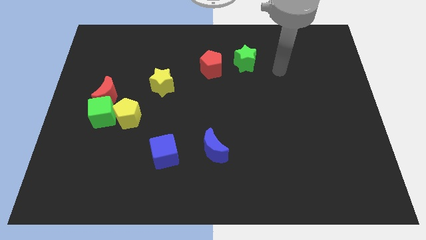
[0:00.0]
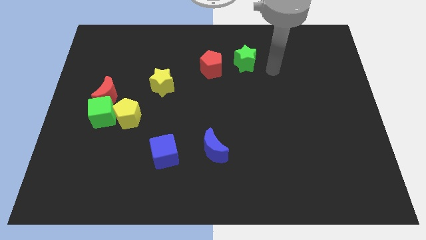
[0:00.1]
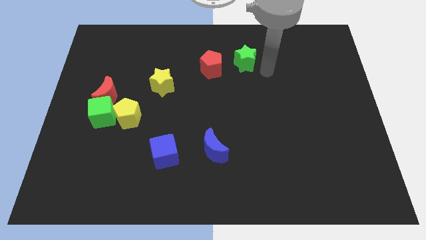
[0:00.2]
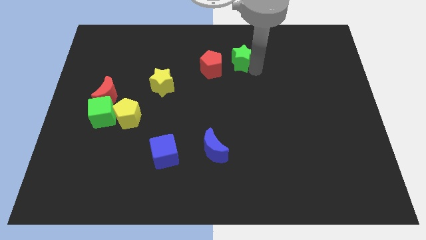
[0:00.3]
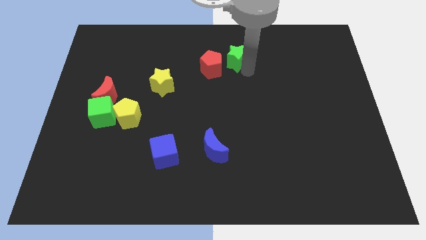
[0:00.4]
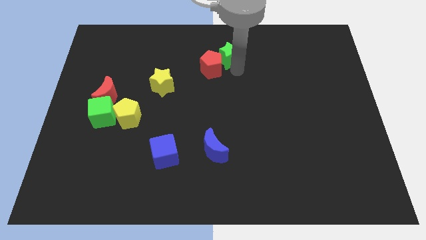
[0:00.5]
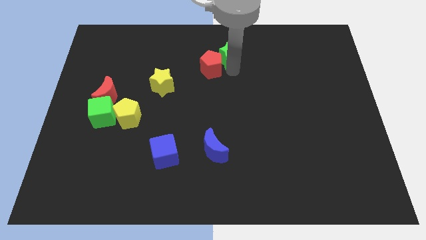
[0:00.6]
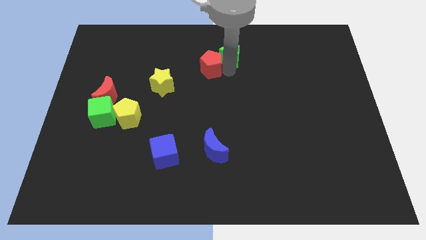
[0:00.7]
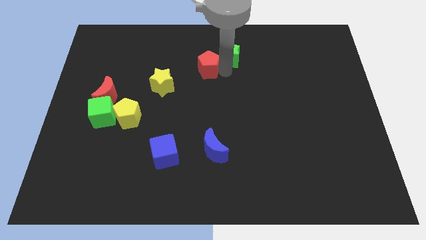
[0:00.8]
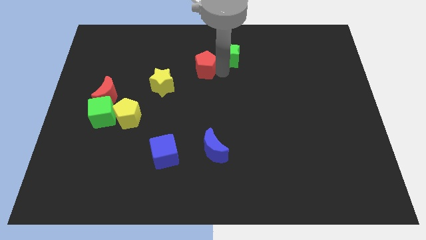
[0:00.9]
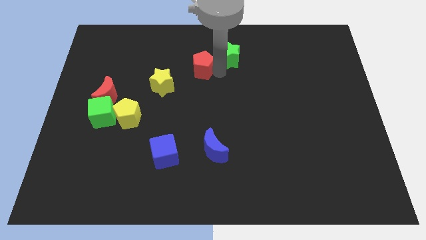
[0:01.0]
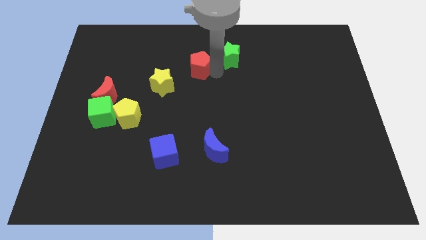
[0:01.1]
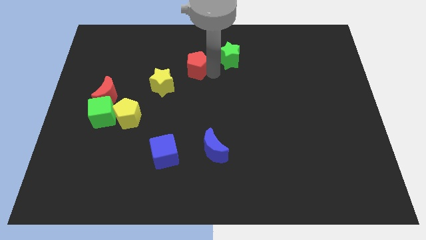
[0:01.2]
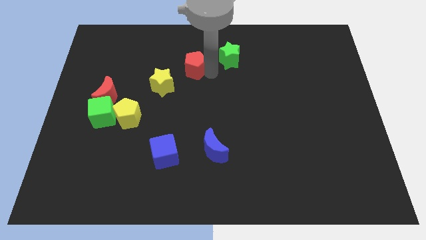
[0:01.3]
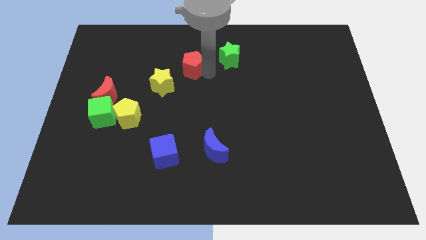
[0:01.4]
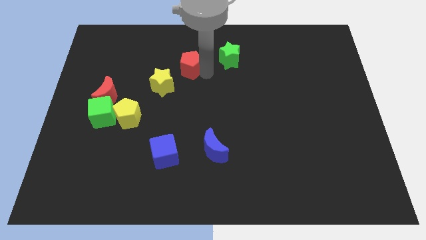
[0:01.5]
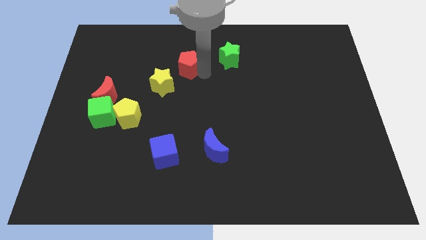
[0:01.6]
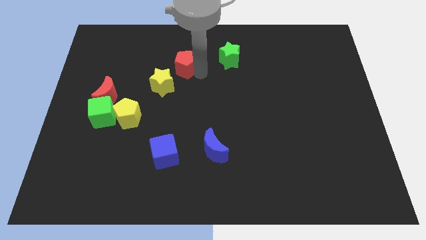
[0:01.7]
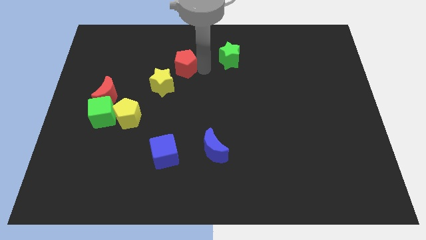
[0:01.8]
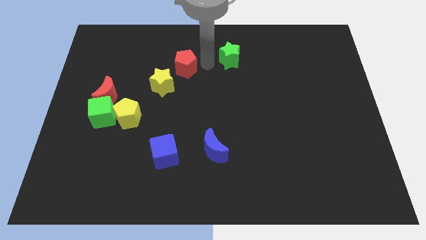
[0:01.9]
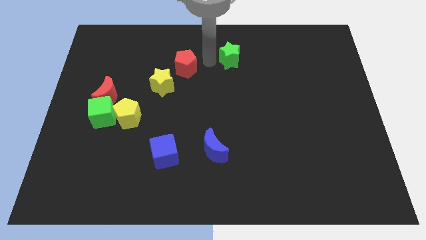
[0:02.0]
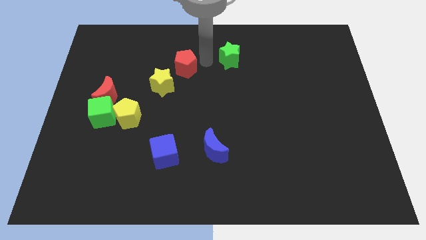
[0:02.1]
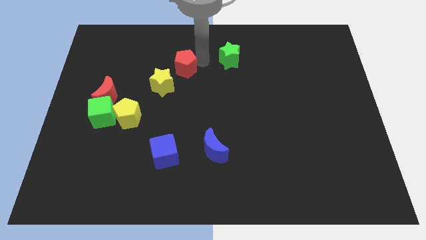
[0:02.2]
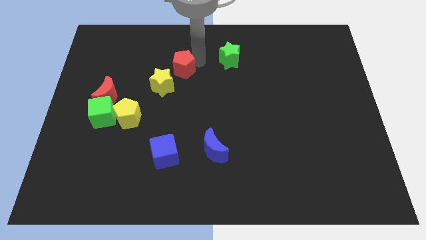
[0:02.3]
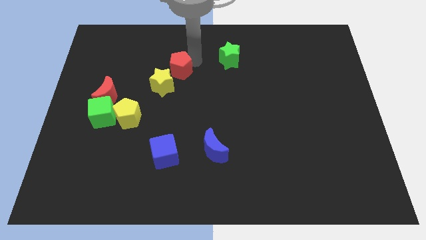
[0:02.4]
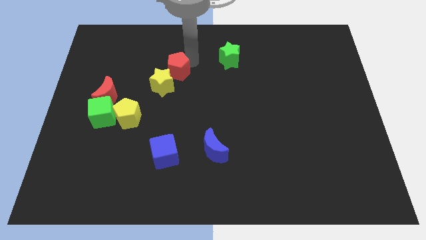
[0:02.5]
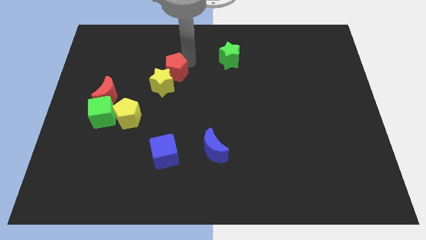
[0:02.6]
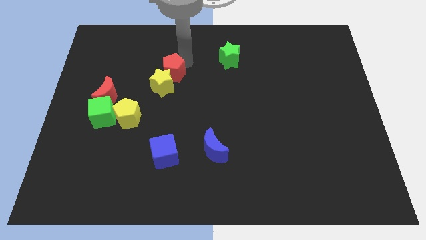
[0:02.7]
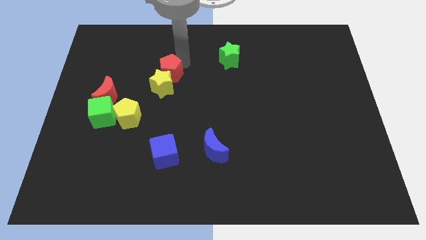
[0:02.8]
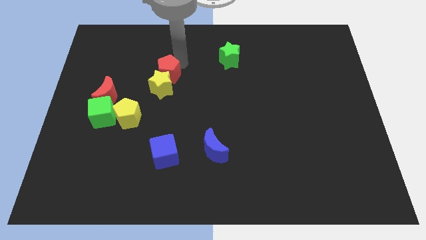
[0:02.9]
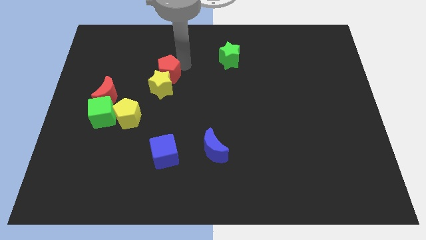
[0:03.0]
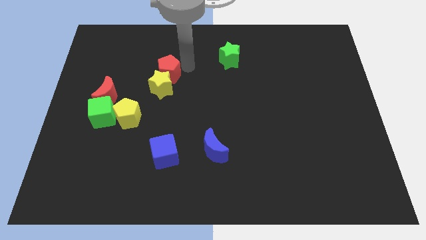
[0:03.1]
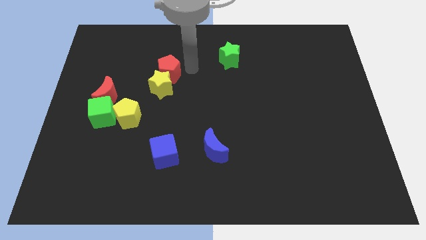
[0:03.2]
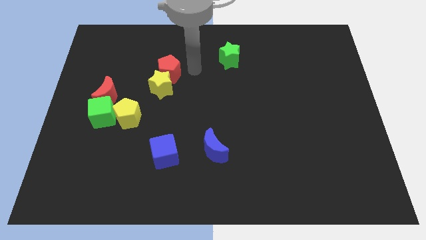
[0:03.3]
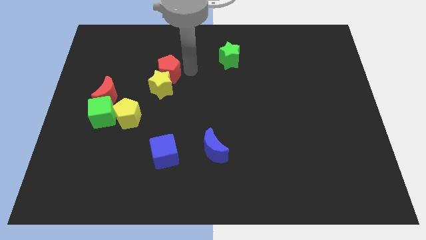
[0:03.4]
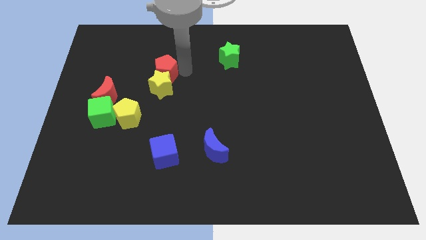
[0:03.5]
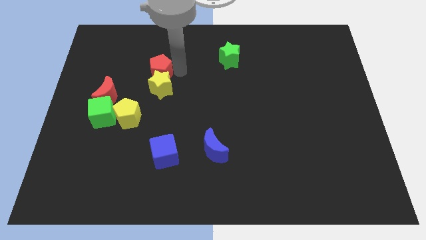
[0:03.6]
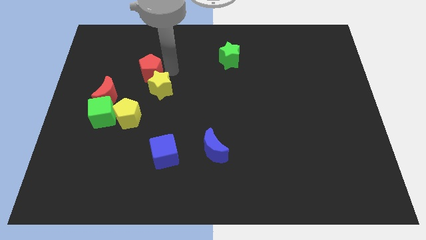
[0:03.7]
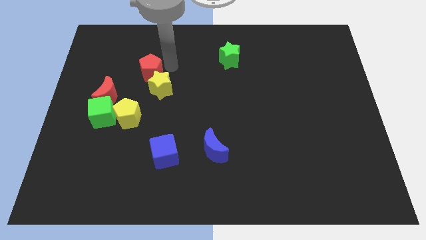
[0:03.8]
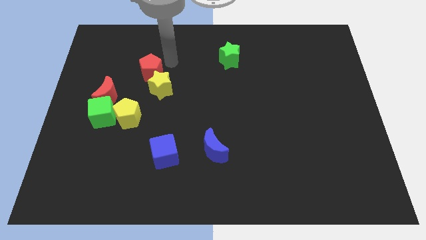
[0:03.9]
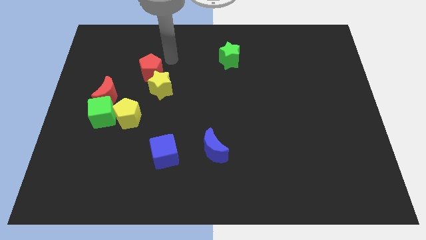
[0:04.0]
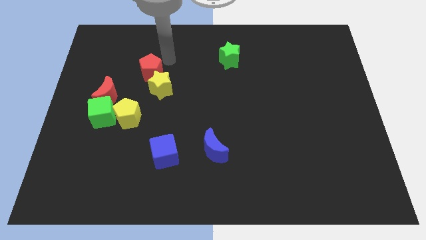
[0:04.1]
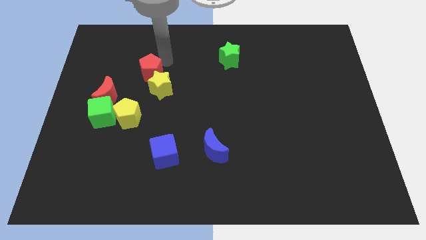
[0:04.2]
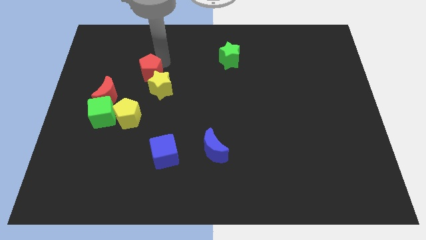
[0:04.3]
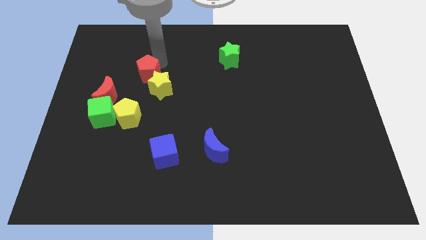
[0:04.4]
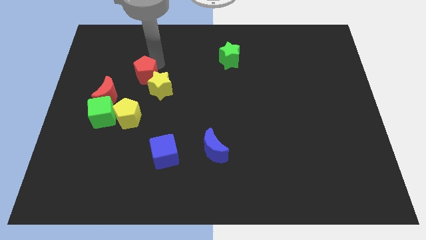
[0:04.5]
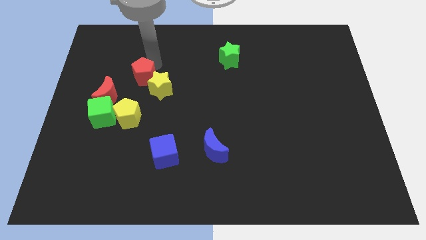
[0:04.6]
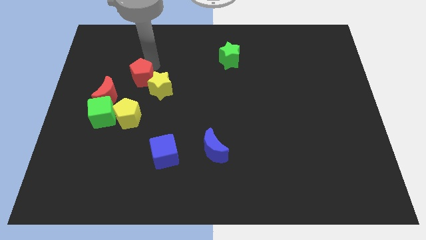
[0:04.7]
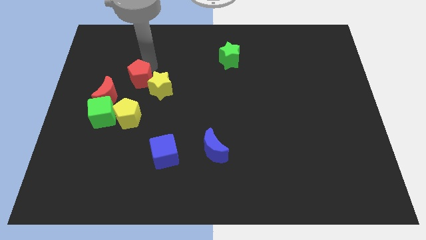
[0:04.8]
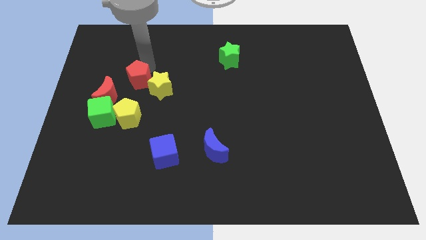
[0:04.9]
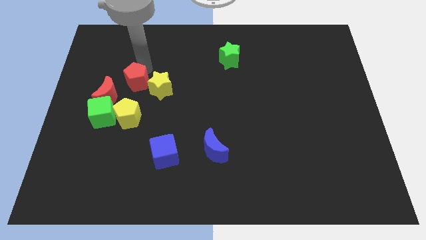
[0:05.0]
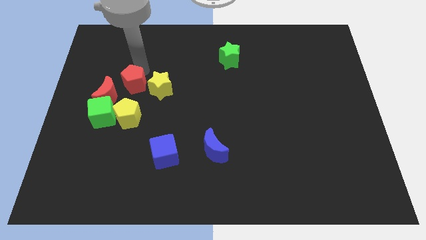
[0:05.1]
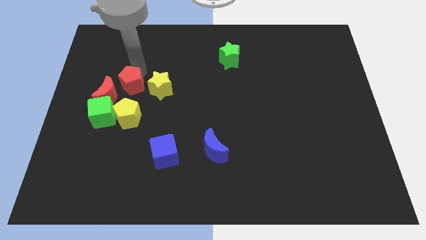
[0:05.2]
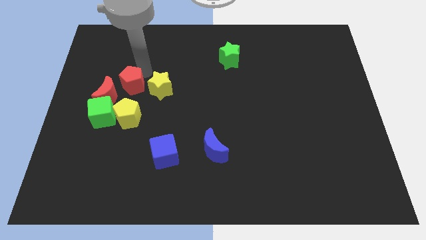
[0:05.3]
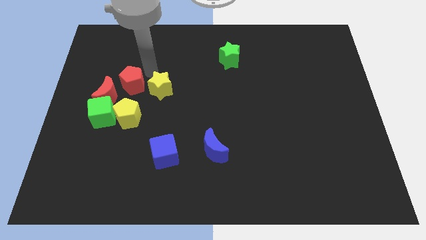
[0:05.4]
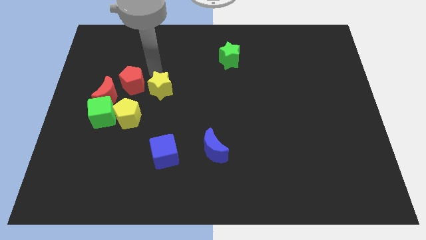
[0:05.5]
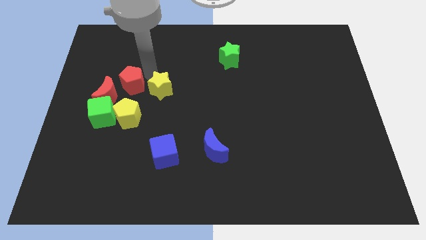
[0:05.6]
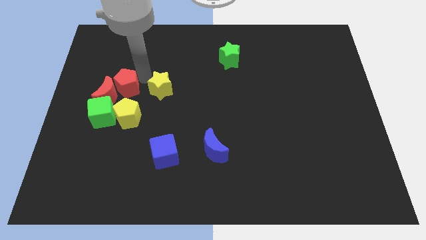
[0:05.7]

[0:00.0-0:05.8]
push the red pentagon next to the red moon

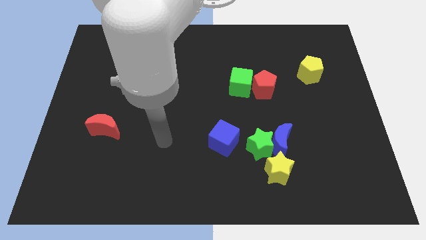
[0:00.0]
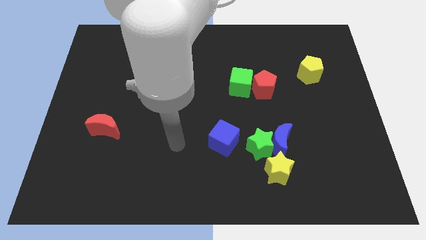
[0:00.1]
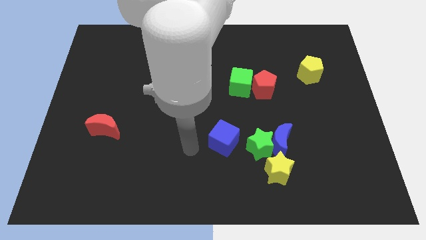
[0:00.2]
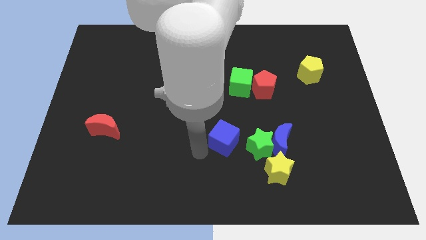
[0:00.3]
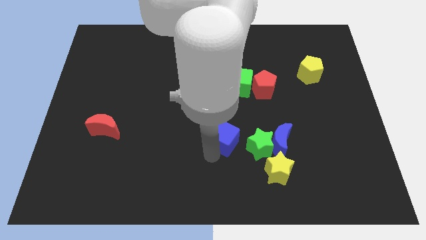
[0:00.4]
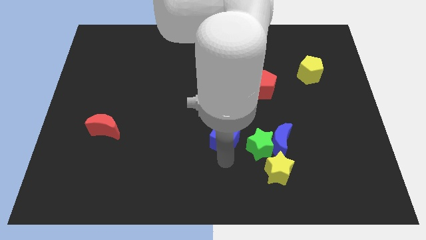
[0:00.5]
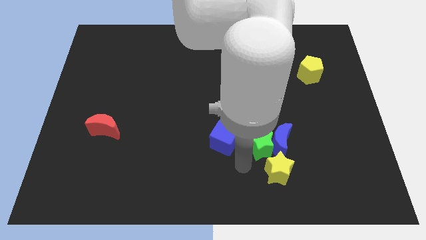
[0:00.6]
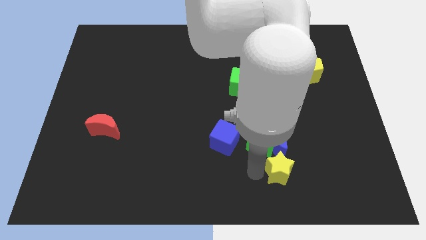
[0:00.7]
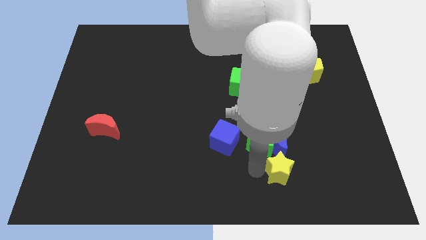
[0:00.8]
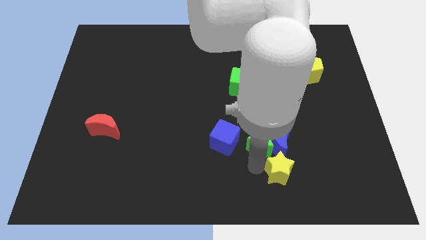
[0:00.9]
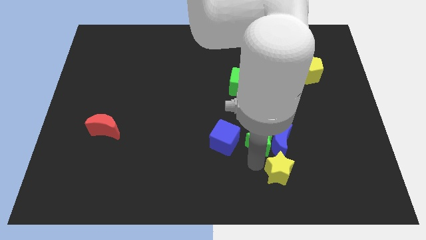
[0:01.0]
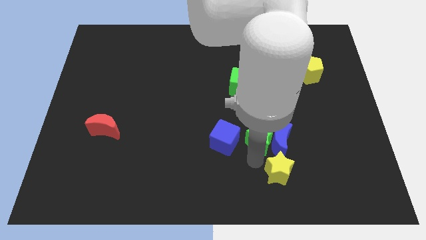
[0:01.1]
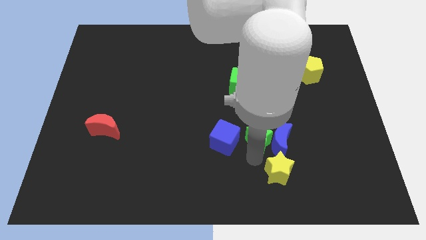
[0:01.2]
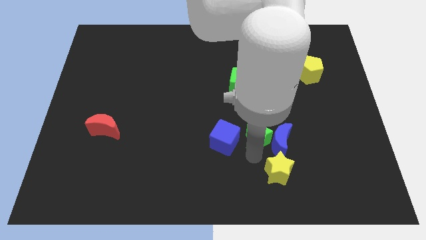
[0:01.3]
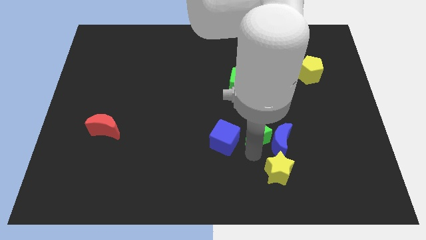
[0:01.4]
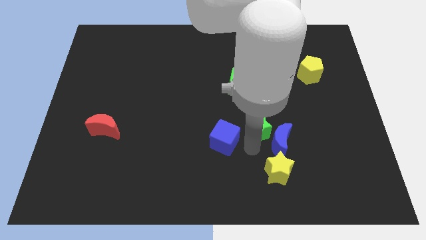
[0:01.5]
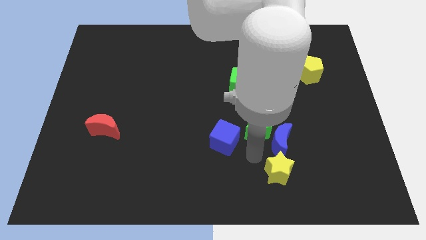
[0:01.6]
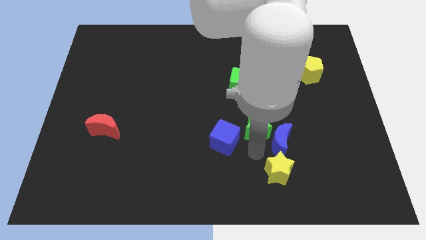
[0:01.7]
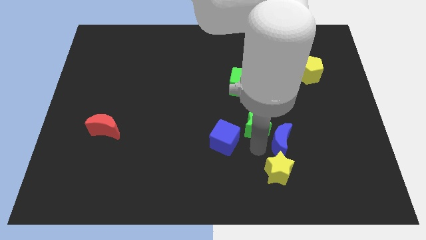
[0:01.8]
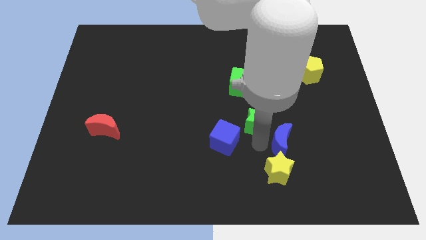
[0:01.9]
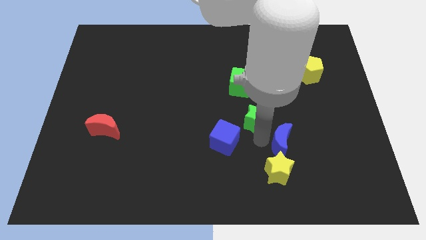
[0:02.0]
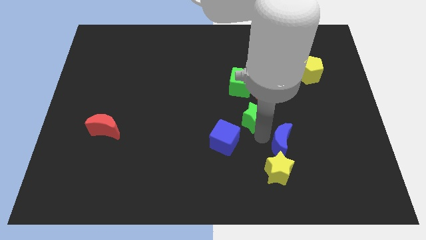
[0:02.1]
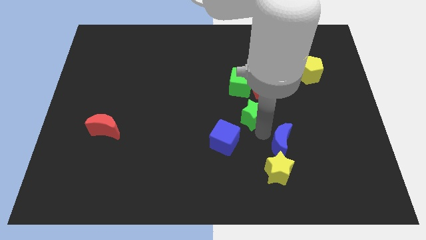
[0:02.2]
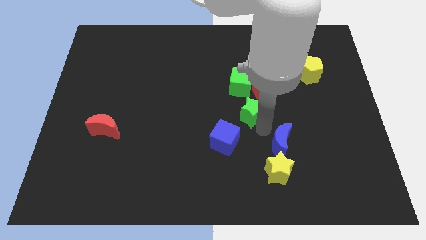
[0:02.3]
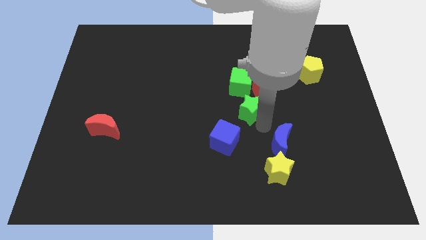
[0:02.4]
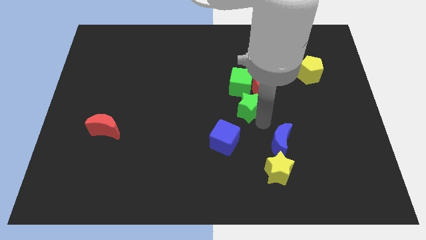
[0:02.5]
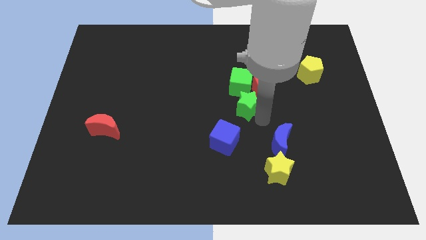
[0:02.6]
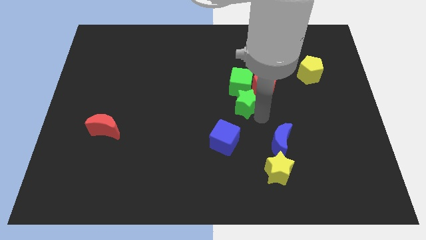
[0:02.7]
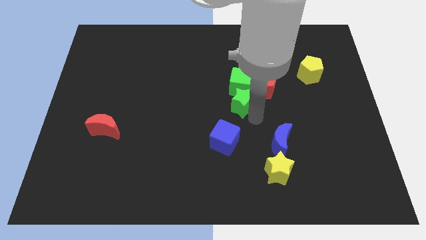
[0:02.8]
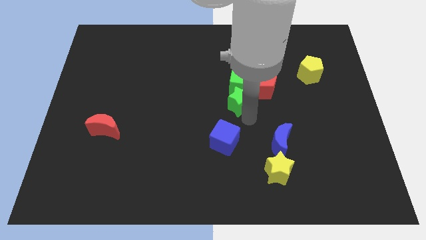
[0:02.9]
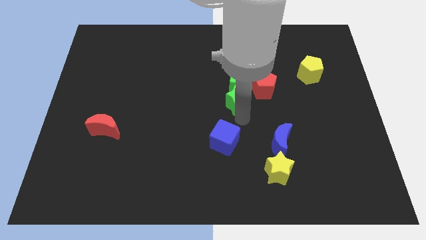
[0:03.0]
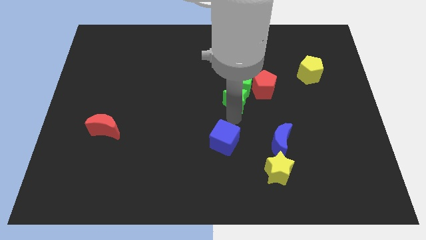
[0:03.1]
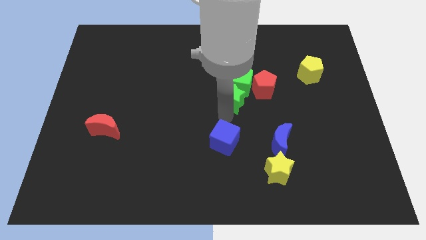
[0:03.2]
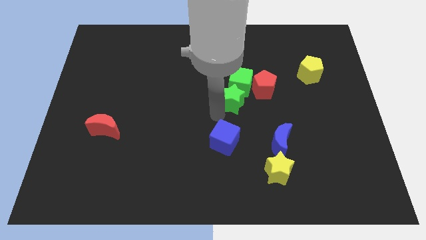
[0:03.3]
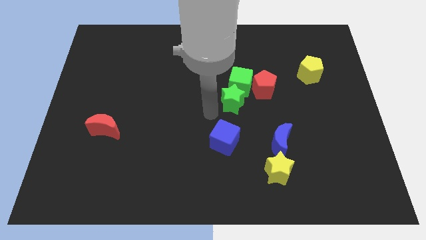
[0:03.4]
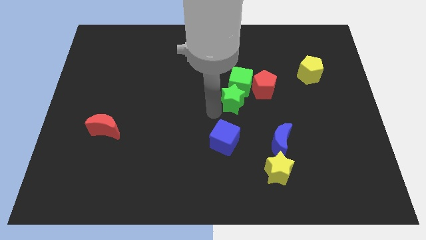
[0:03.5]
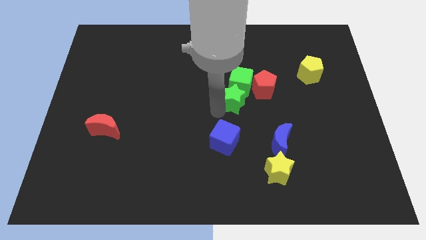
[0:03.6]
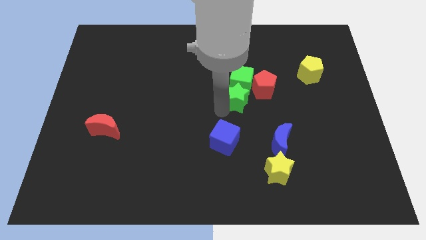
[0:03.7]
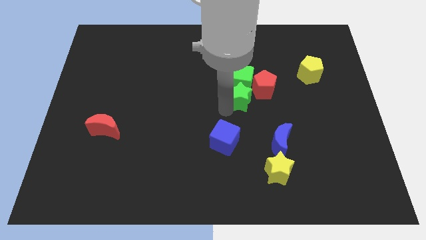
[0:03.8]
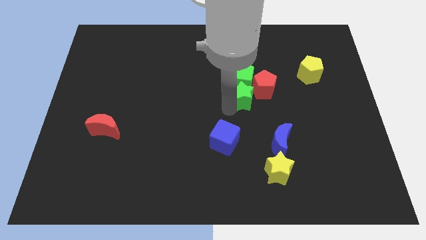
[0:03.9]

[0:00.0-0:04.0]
move the green star close to the red pentagon
